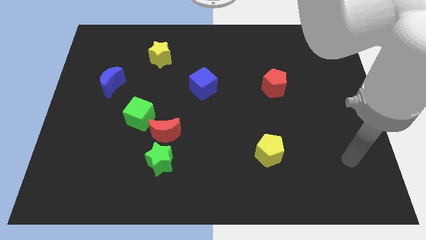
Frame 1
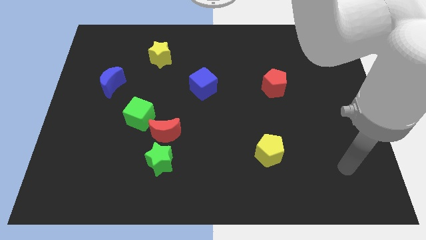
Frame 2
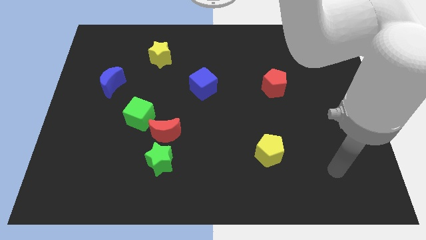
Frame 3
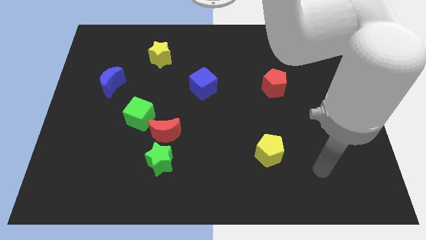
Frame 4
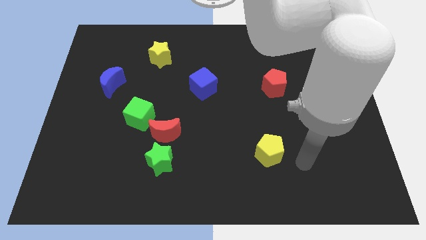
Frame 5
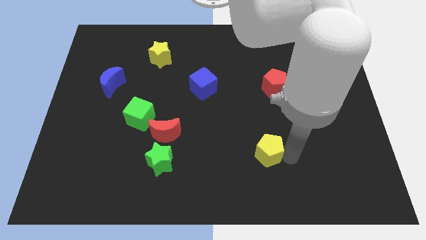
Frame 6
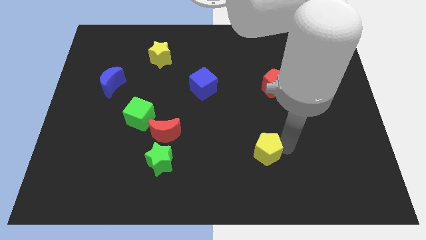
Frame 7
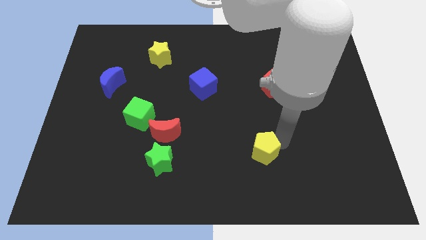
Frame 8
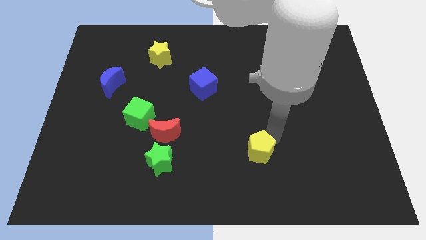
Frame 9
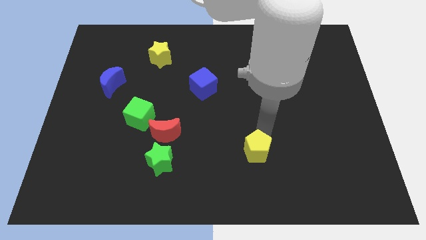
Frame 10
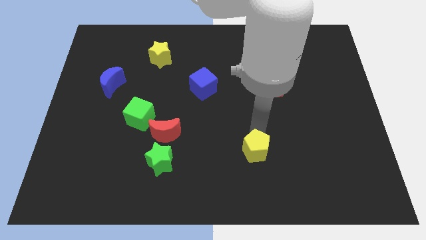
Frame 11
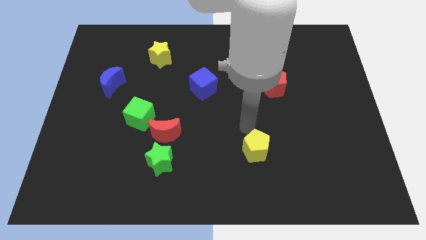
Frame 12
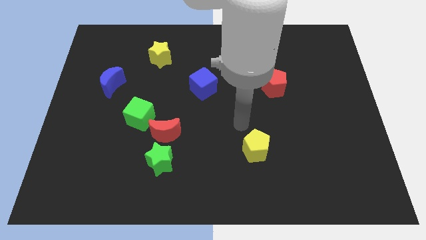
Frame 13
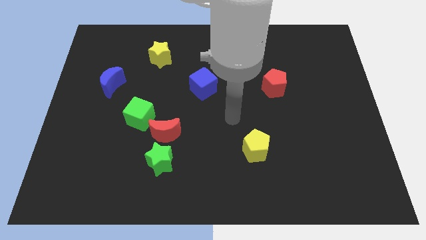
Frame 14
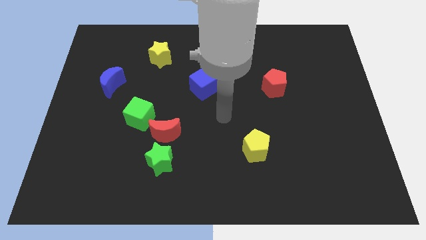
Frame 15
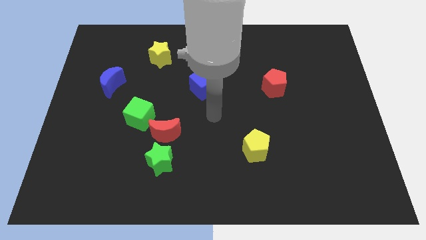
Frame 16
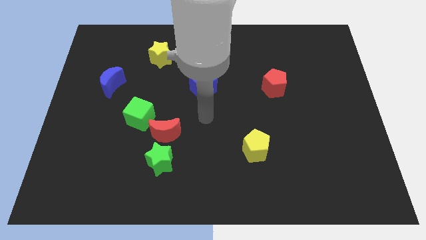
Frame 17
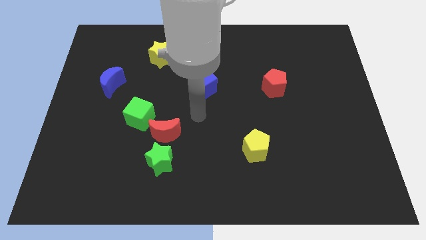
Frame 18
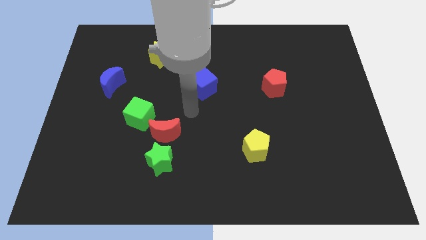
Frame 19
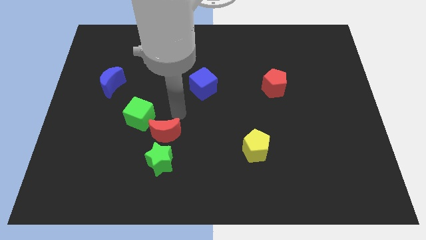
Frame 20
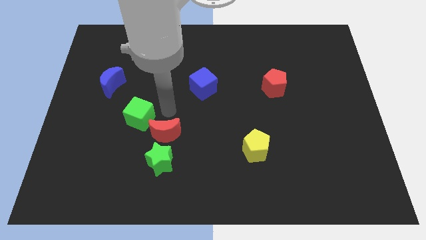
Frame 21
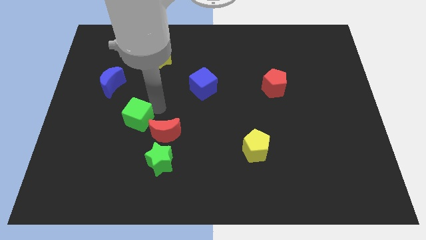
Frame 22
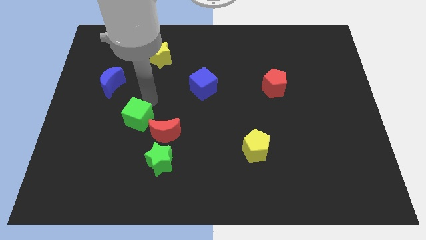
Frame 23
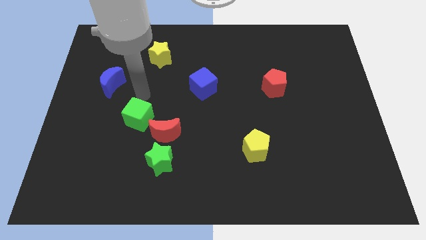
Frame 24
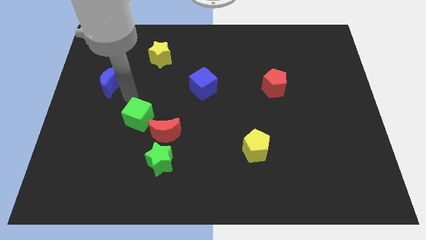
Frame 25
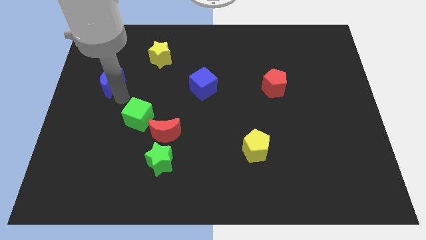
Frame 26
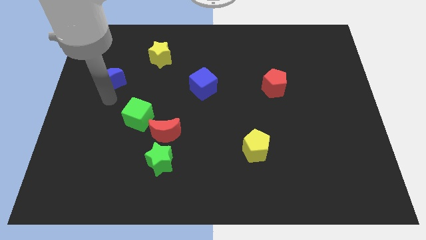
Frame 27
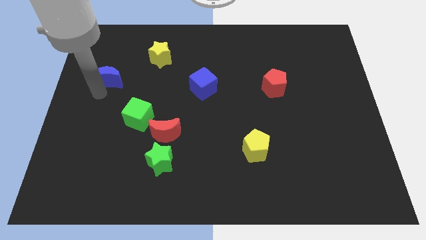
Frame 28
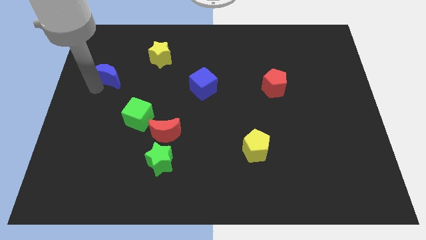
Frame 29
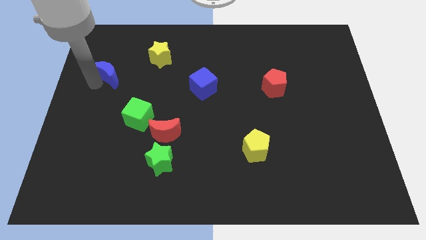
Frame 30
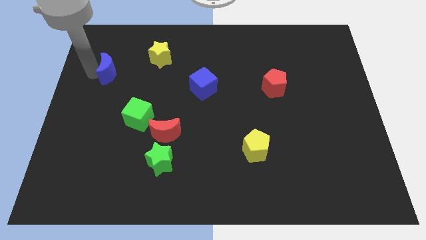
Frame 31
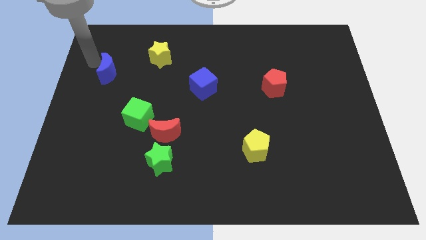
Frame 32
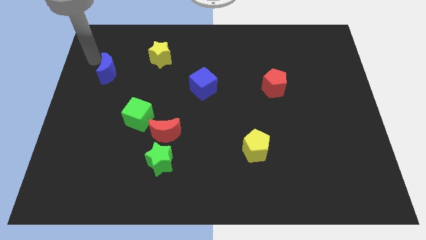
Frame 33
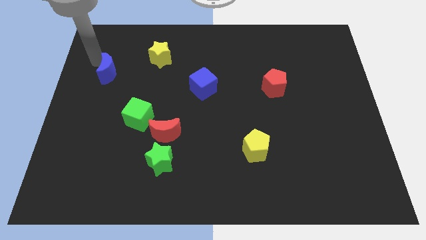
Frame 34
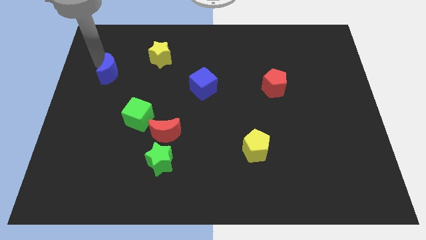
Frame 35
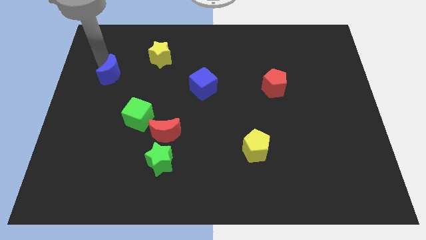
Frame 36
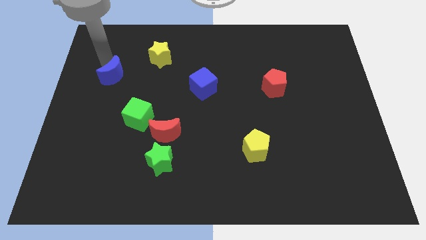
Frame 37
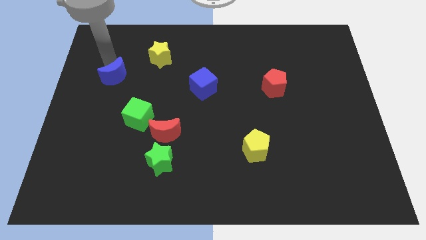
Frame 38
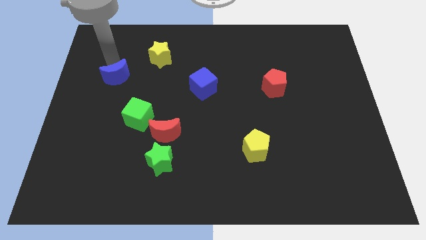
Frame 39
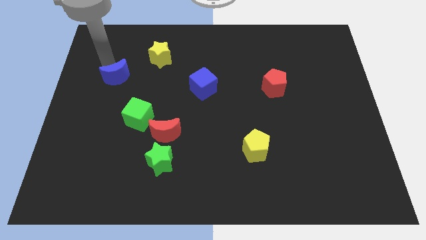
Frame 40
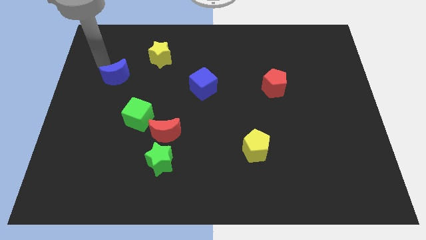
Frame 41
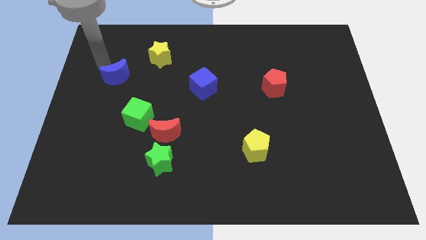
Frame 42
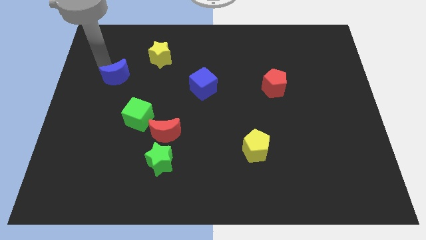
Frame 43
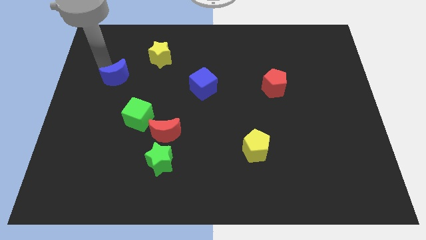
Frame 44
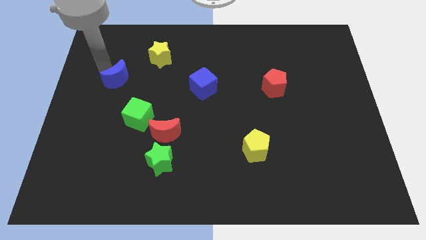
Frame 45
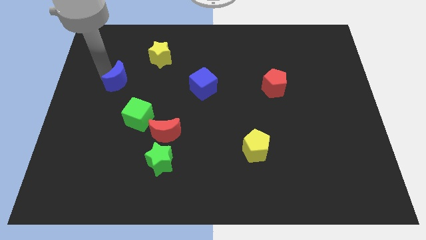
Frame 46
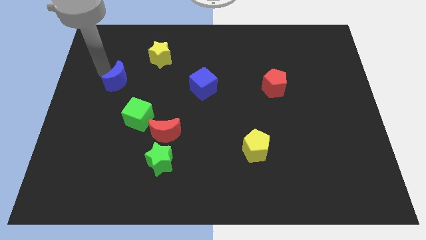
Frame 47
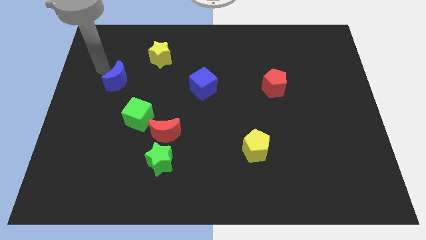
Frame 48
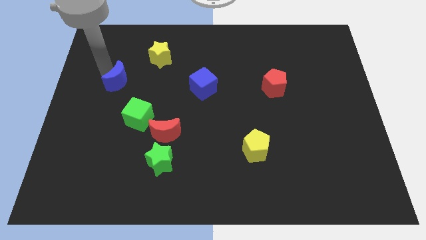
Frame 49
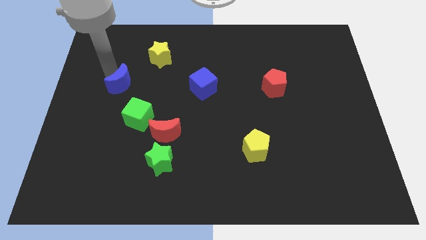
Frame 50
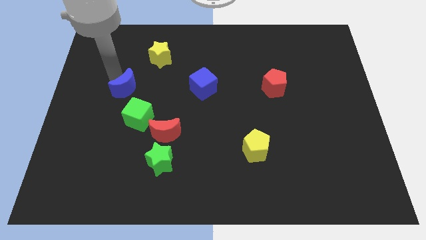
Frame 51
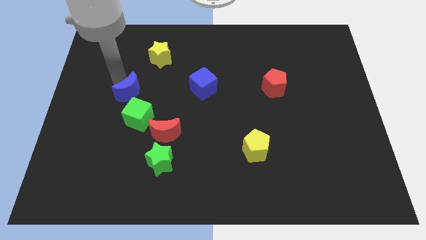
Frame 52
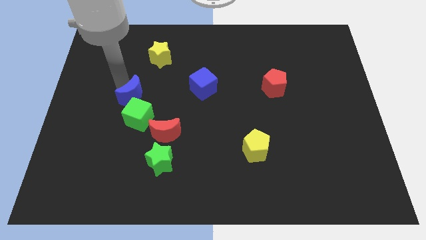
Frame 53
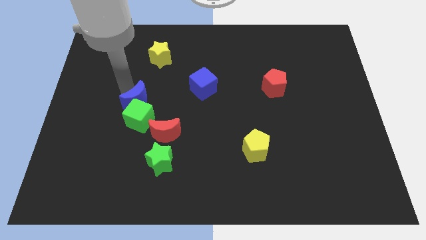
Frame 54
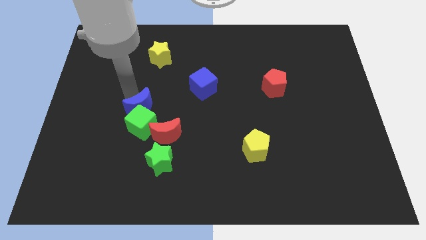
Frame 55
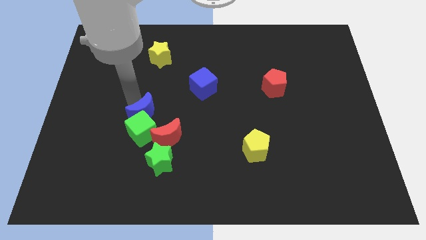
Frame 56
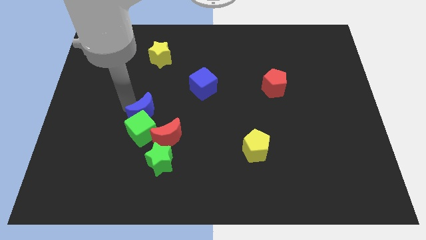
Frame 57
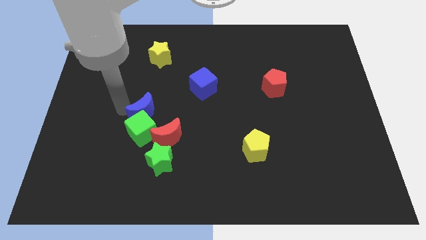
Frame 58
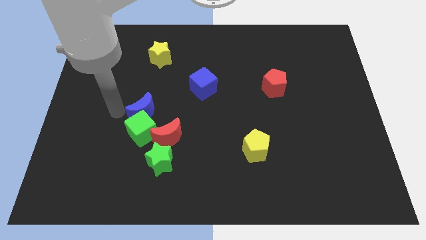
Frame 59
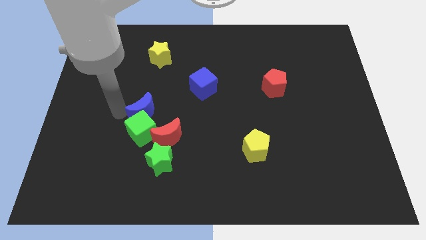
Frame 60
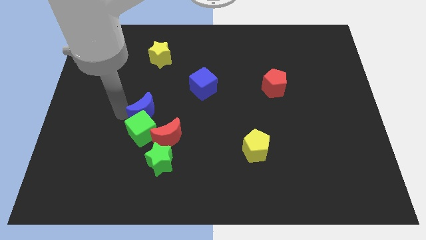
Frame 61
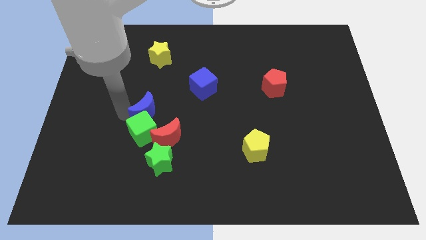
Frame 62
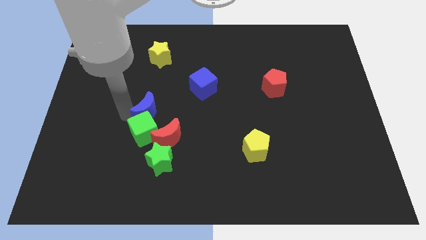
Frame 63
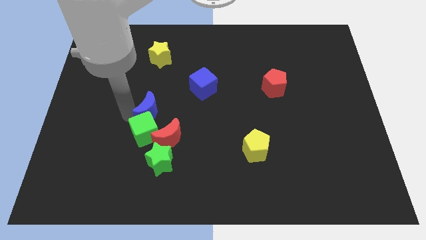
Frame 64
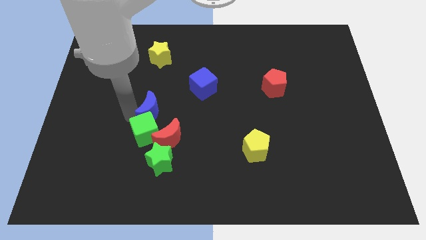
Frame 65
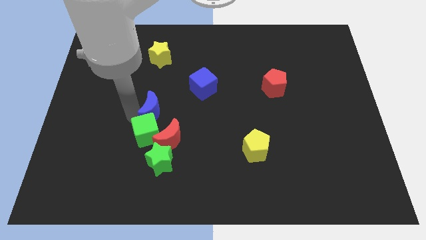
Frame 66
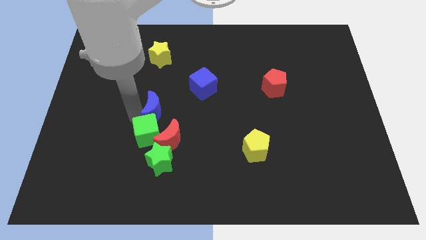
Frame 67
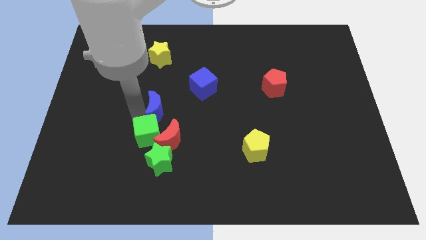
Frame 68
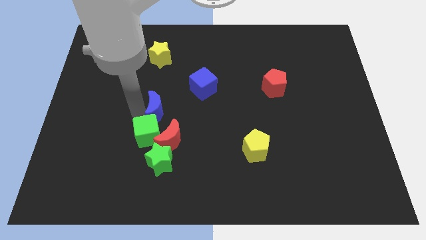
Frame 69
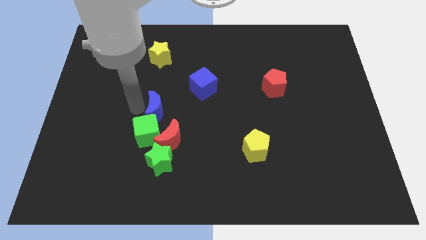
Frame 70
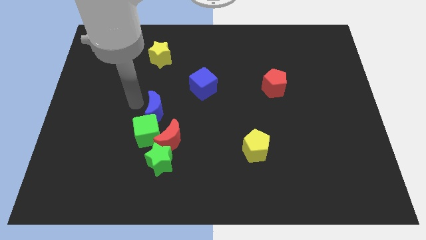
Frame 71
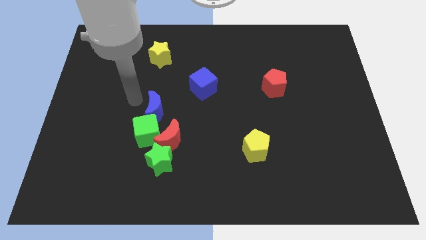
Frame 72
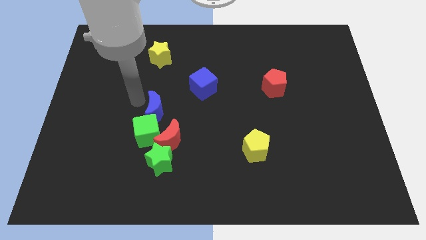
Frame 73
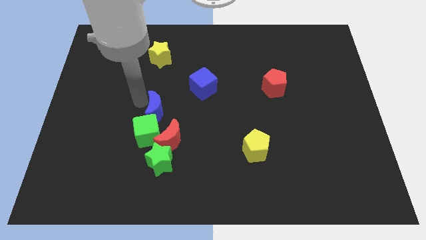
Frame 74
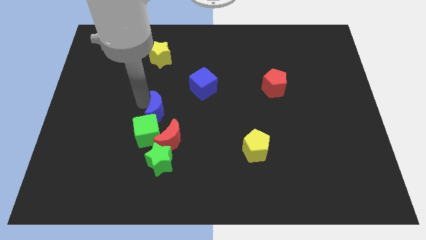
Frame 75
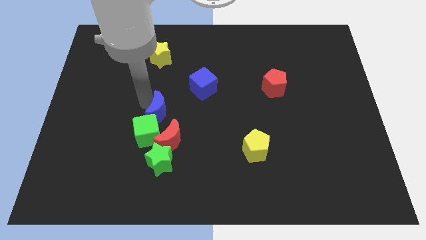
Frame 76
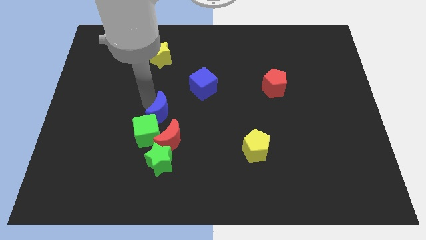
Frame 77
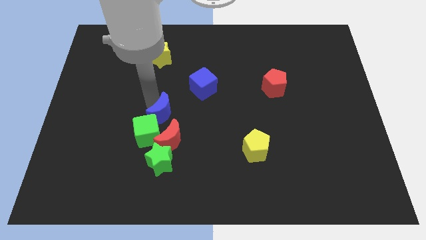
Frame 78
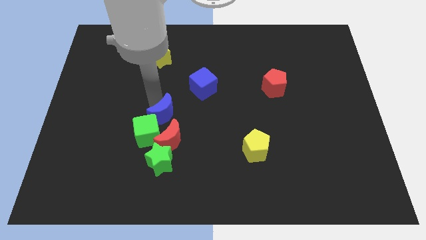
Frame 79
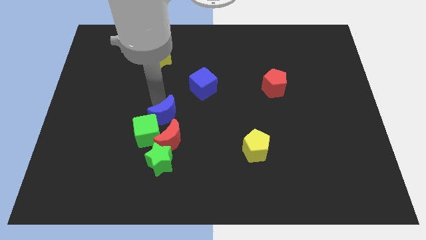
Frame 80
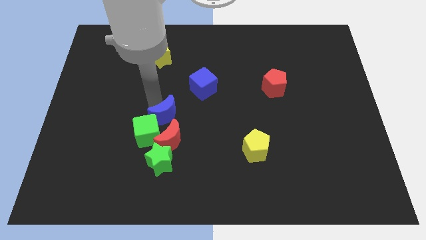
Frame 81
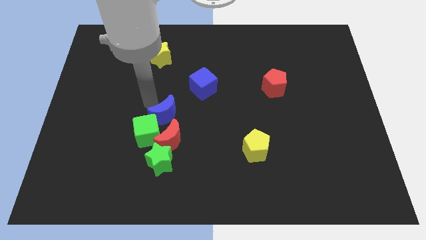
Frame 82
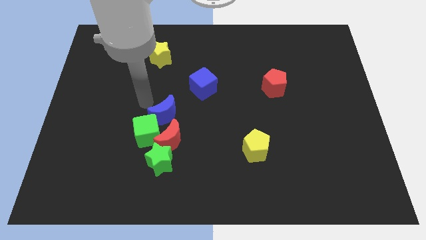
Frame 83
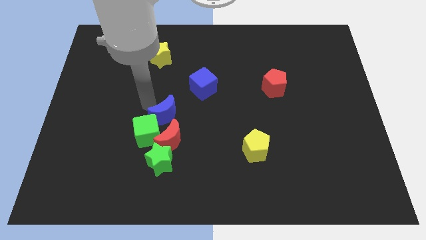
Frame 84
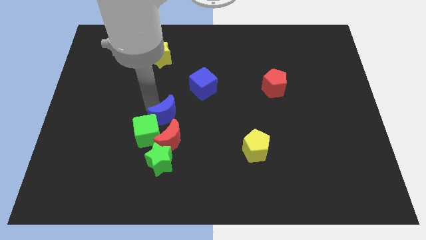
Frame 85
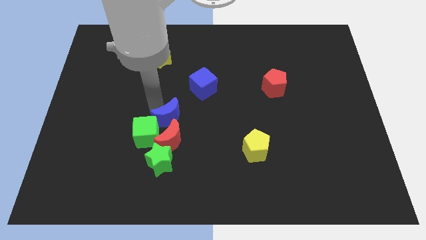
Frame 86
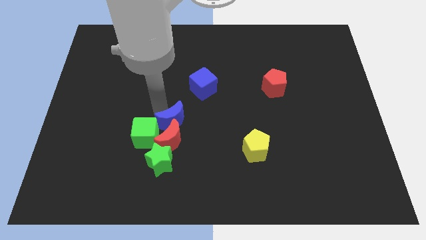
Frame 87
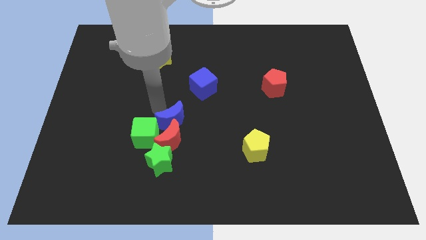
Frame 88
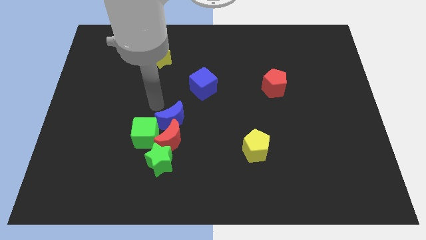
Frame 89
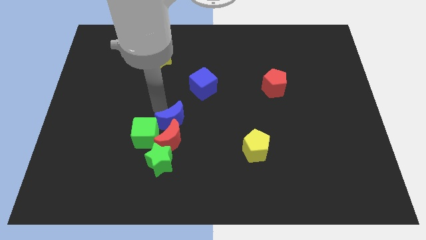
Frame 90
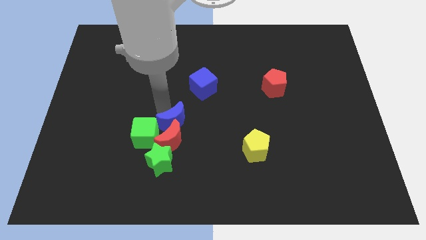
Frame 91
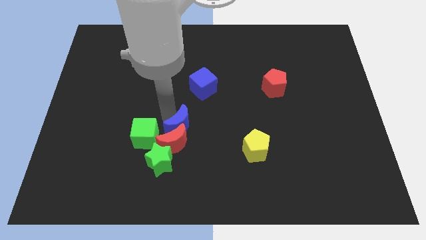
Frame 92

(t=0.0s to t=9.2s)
slide the blue moon down and right diagonally
